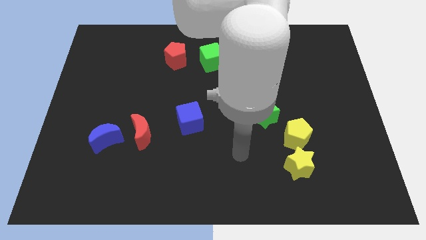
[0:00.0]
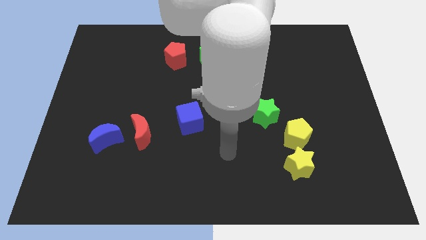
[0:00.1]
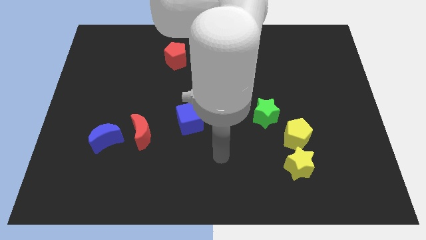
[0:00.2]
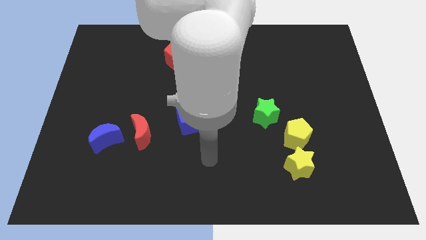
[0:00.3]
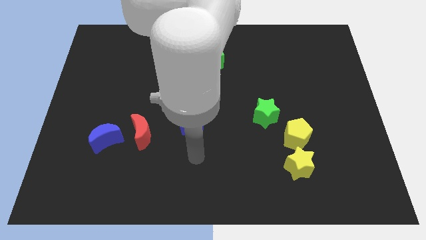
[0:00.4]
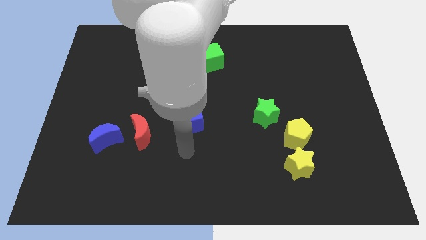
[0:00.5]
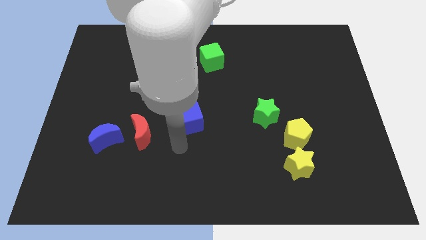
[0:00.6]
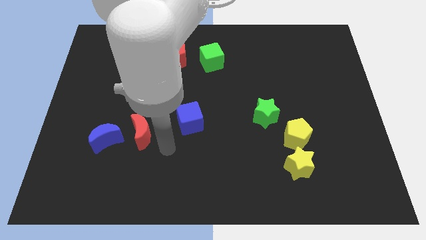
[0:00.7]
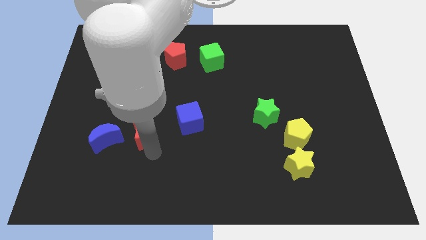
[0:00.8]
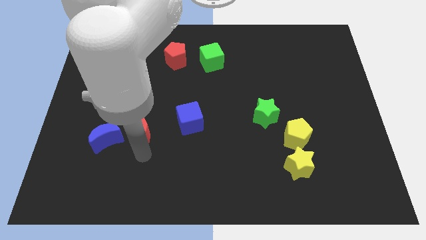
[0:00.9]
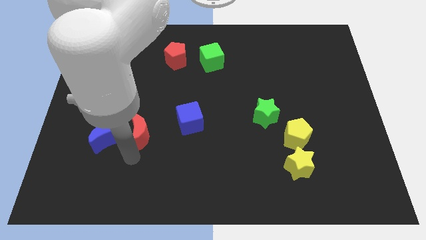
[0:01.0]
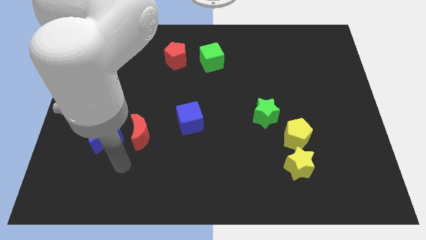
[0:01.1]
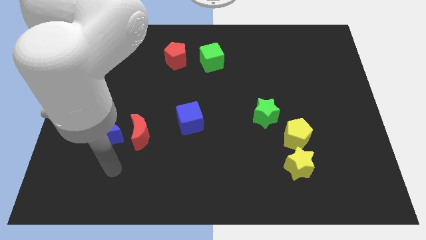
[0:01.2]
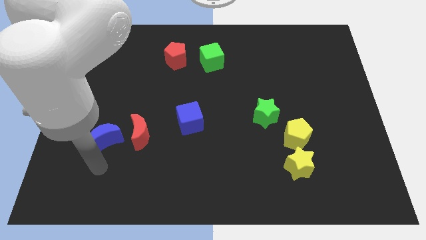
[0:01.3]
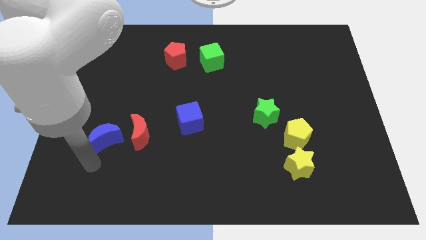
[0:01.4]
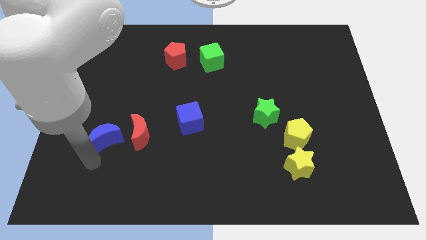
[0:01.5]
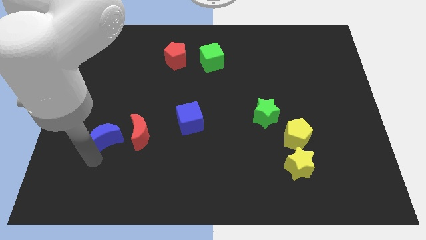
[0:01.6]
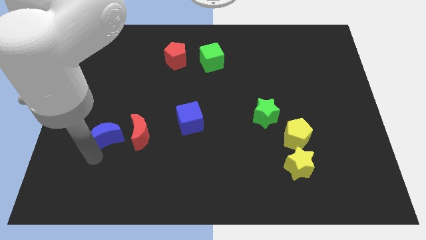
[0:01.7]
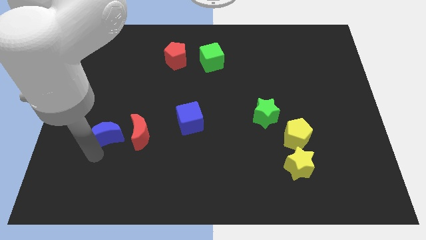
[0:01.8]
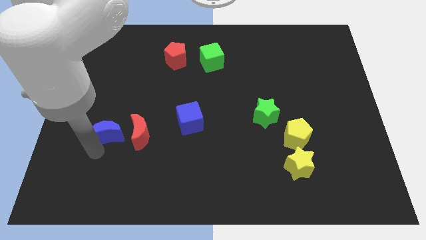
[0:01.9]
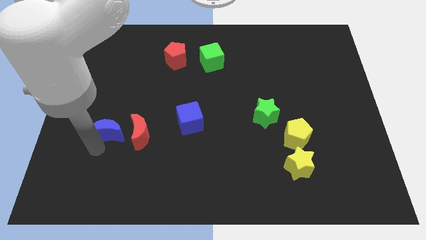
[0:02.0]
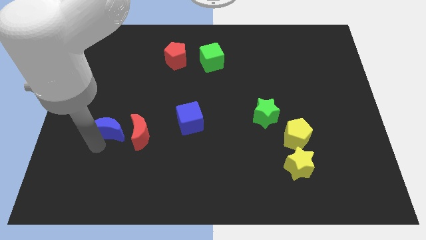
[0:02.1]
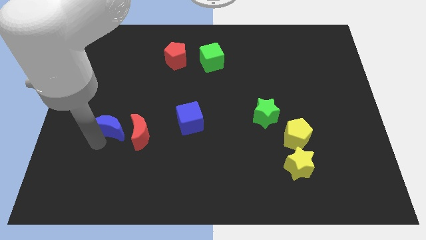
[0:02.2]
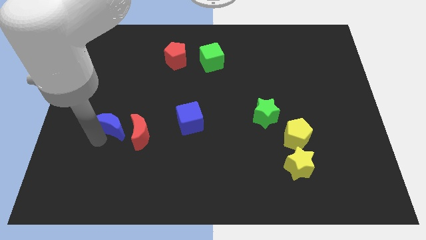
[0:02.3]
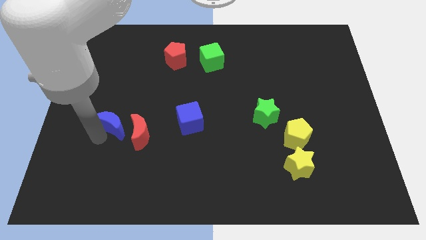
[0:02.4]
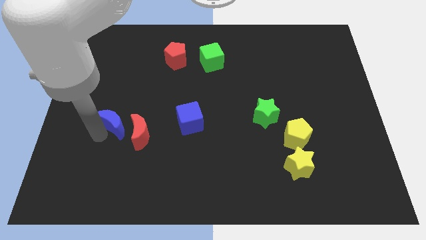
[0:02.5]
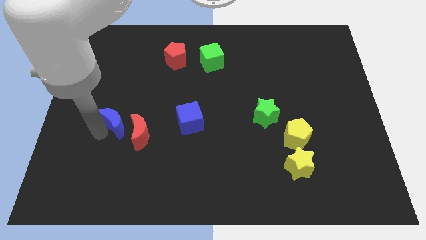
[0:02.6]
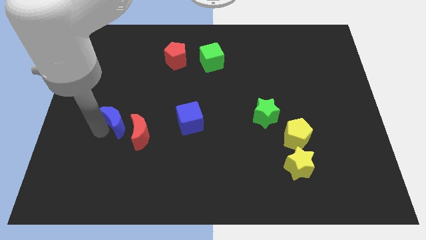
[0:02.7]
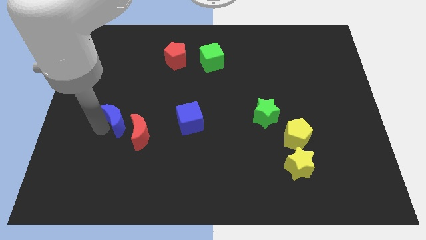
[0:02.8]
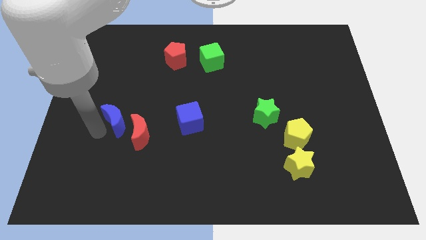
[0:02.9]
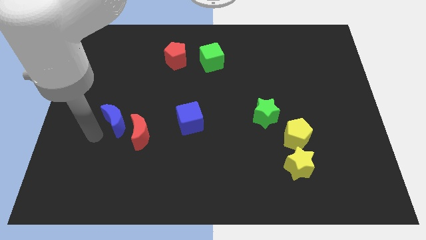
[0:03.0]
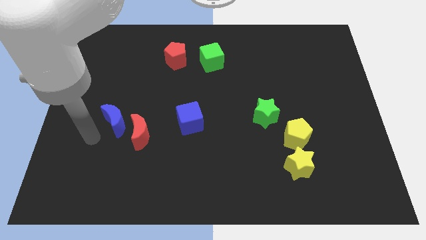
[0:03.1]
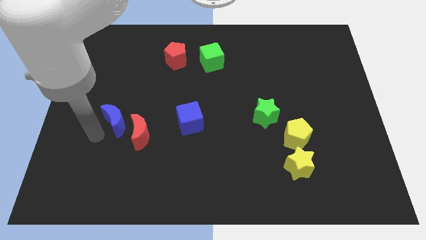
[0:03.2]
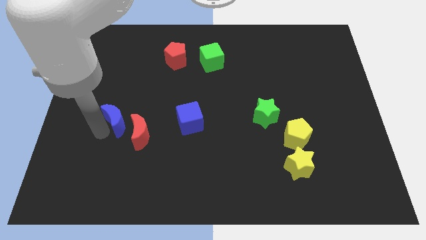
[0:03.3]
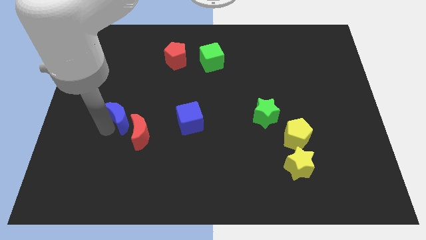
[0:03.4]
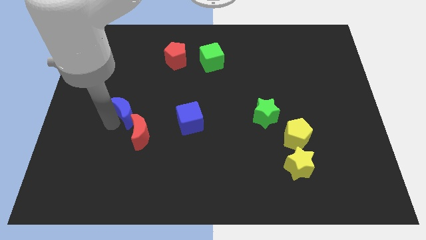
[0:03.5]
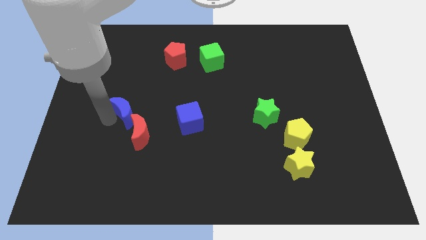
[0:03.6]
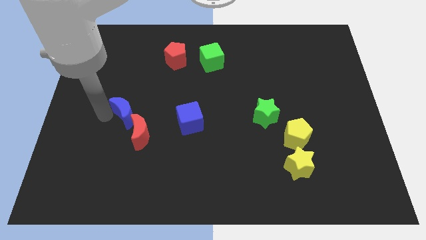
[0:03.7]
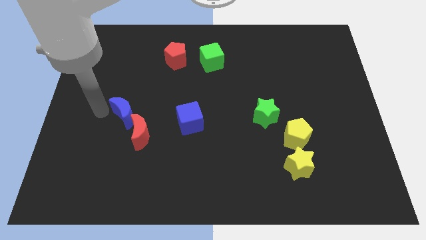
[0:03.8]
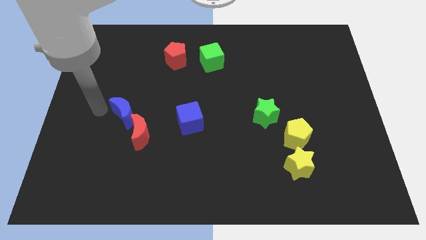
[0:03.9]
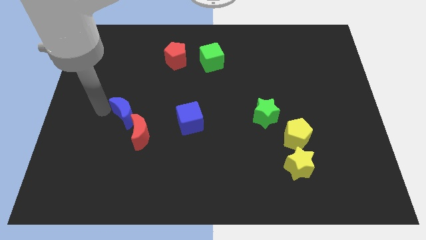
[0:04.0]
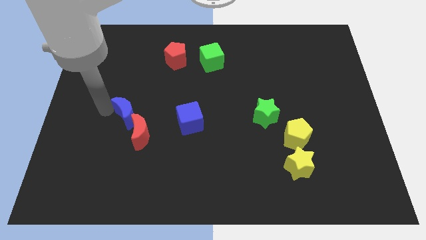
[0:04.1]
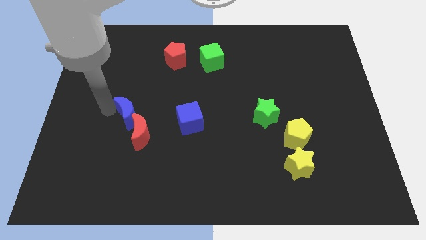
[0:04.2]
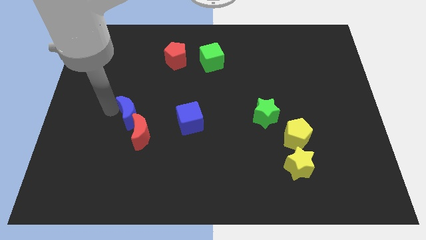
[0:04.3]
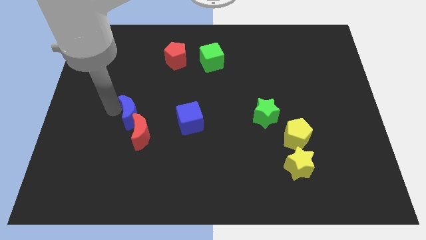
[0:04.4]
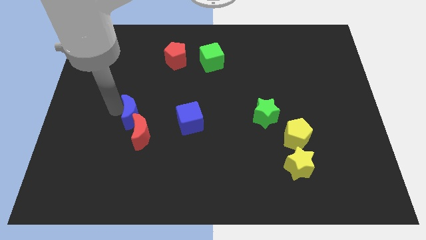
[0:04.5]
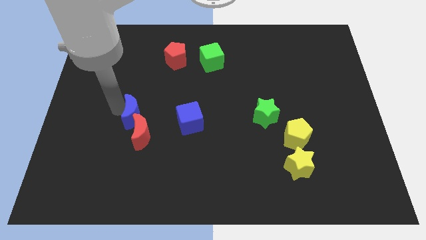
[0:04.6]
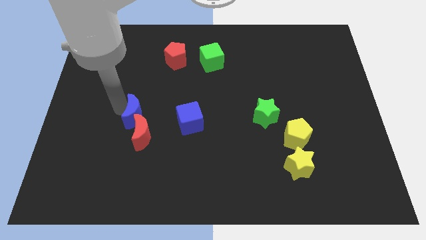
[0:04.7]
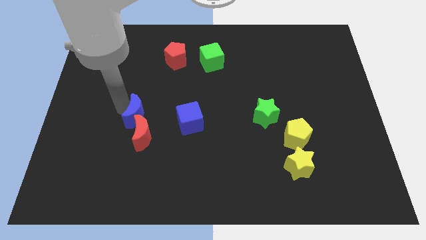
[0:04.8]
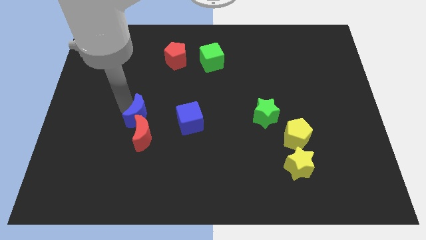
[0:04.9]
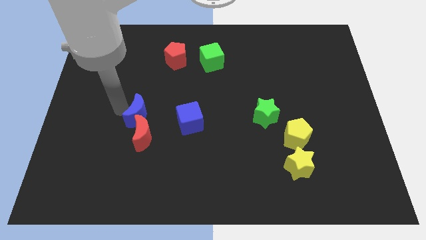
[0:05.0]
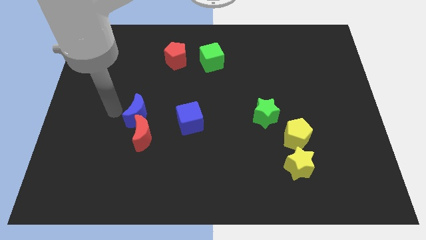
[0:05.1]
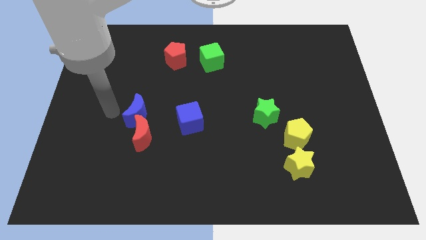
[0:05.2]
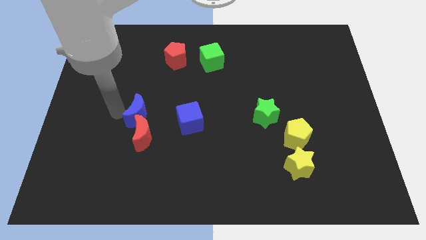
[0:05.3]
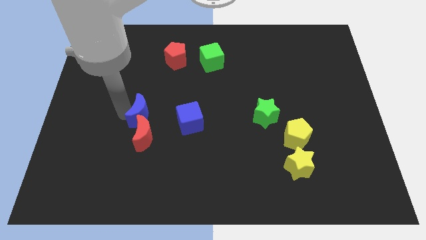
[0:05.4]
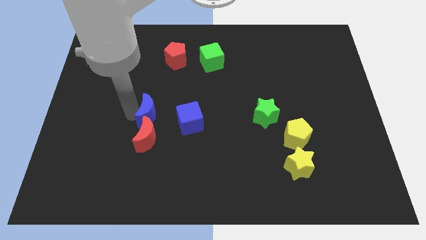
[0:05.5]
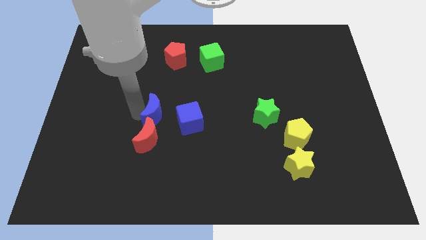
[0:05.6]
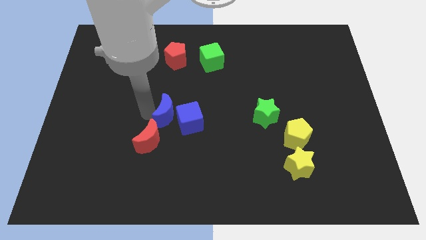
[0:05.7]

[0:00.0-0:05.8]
slide the blue moon towards the blue cube

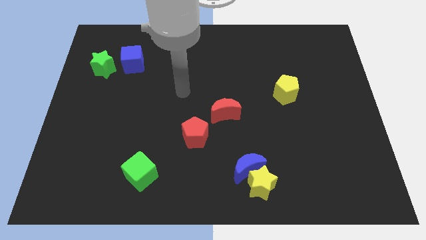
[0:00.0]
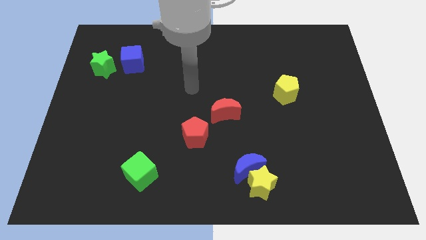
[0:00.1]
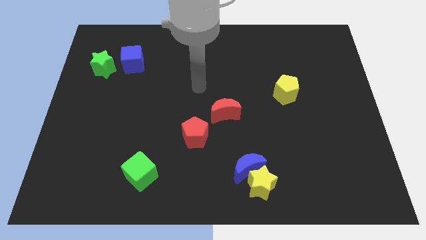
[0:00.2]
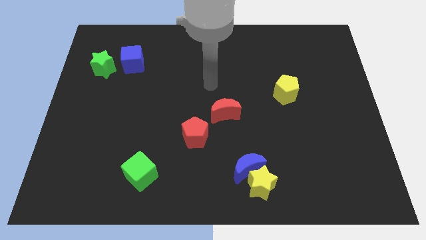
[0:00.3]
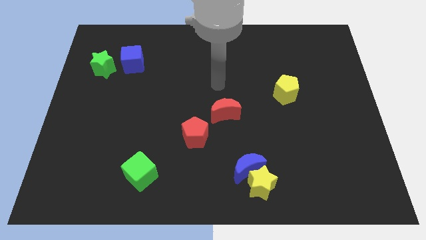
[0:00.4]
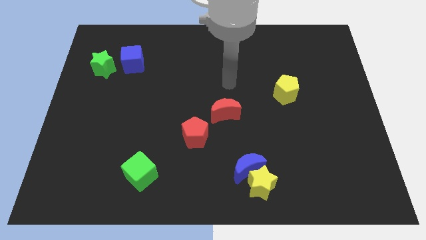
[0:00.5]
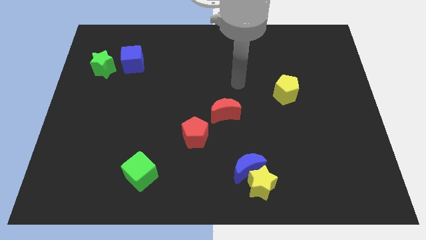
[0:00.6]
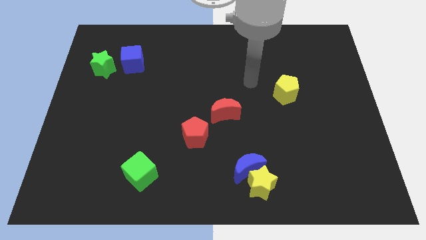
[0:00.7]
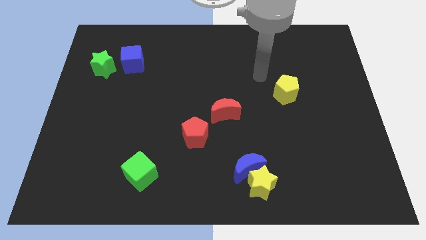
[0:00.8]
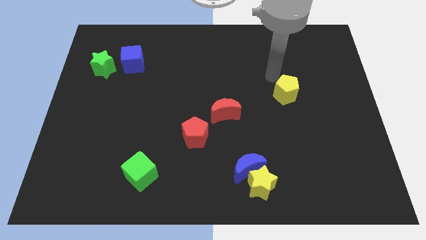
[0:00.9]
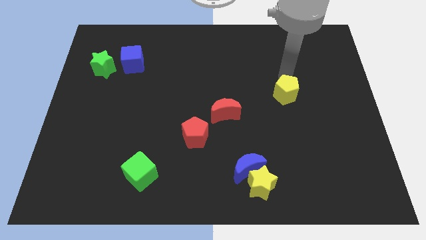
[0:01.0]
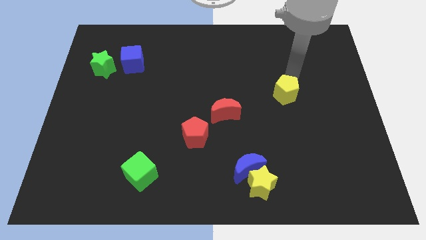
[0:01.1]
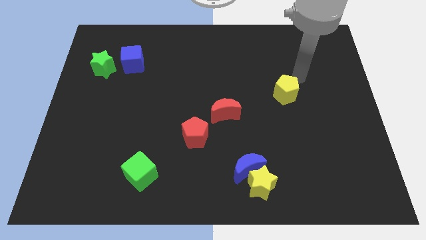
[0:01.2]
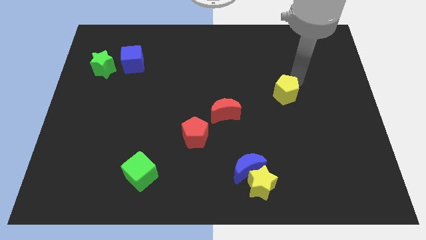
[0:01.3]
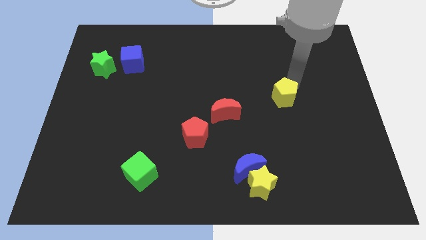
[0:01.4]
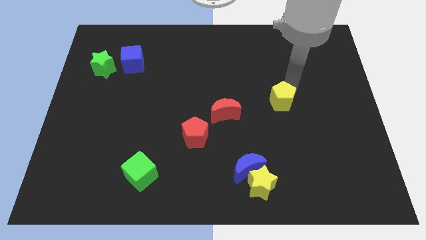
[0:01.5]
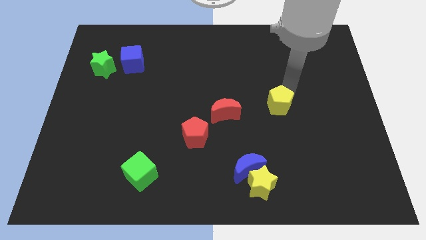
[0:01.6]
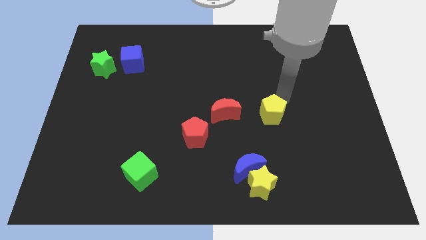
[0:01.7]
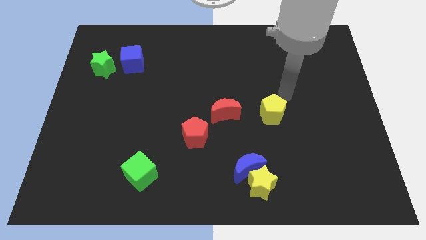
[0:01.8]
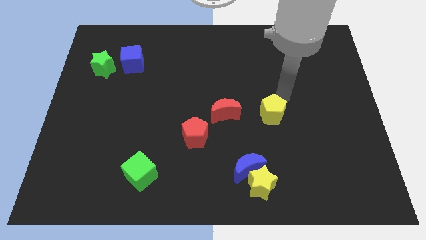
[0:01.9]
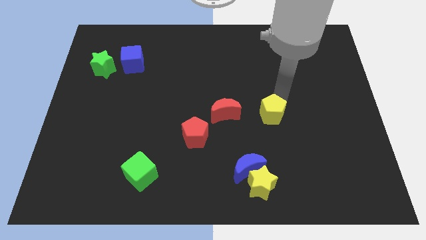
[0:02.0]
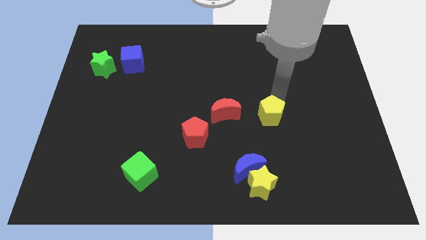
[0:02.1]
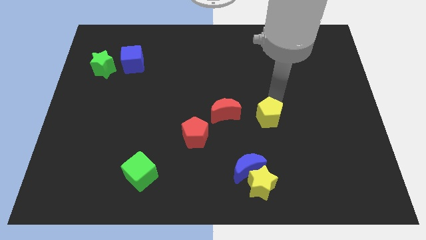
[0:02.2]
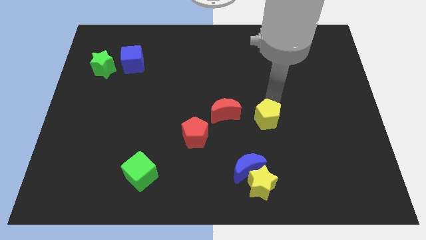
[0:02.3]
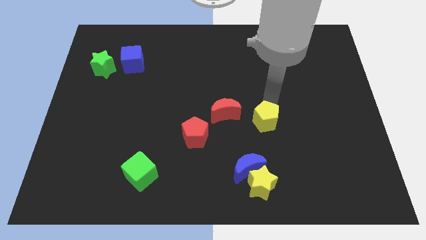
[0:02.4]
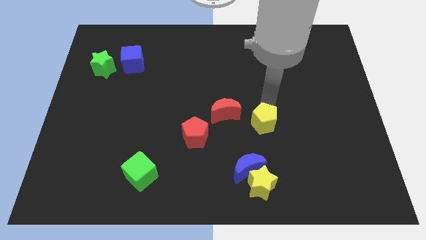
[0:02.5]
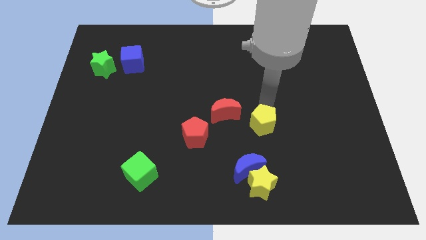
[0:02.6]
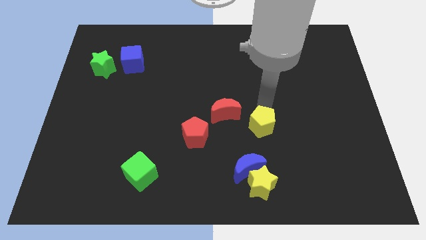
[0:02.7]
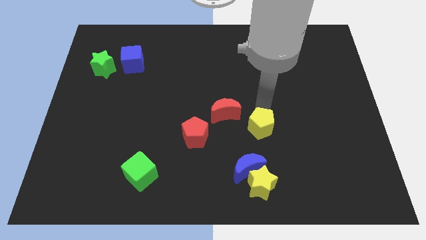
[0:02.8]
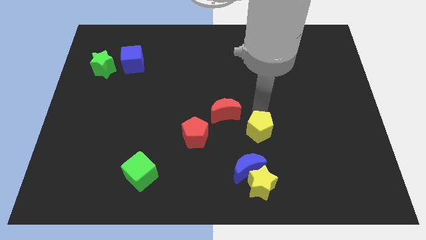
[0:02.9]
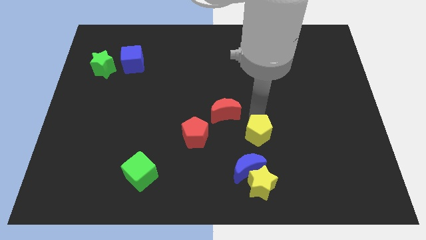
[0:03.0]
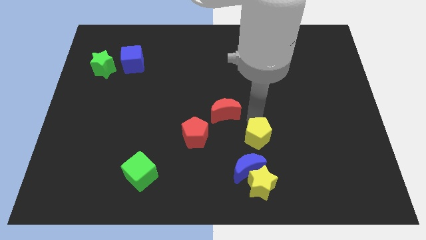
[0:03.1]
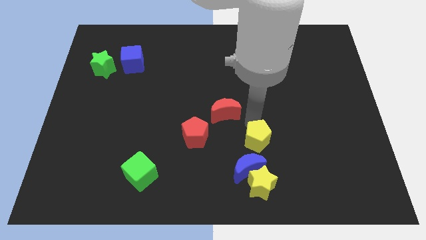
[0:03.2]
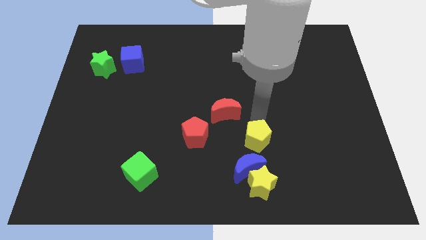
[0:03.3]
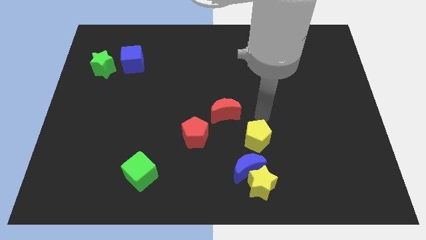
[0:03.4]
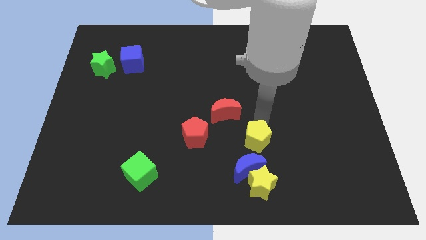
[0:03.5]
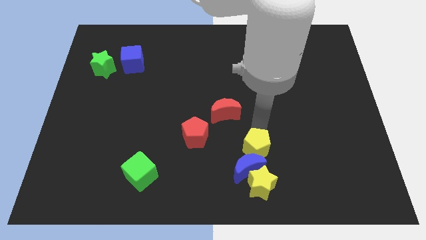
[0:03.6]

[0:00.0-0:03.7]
push the yellow pentagon close to the blue moon
